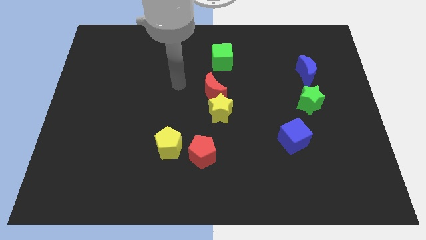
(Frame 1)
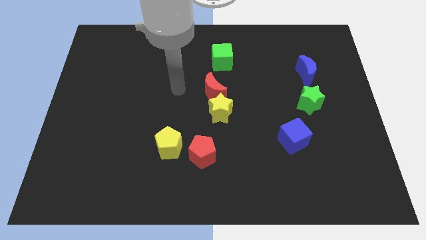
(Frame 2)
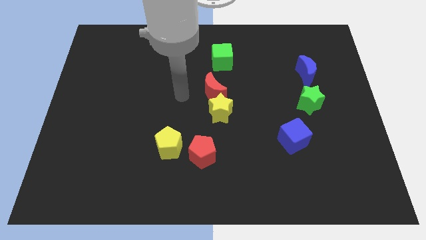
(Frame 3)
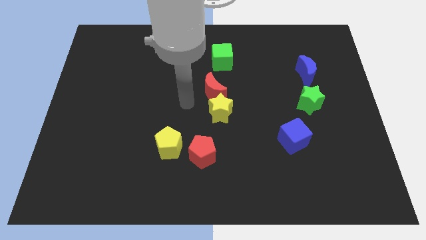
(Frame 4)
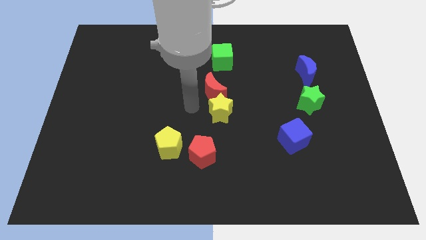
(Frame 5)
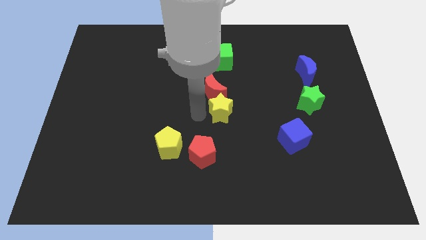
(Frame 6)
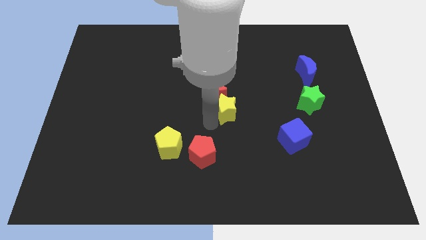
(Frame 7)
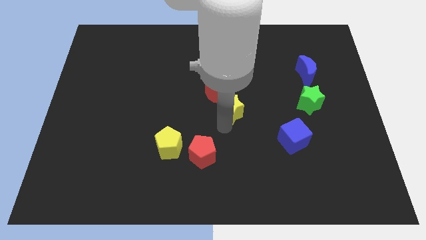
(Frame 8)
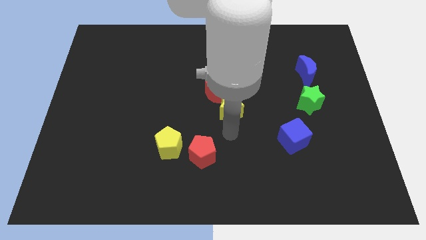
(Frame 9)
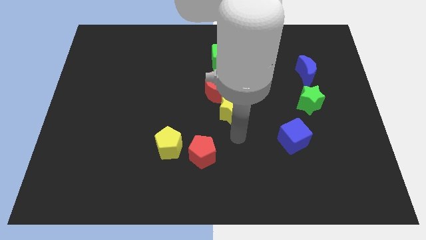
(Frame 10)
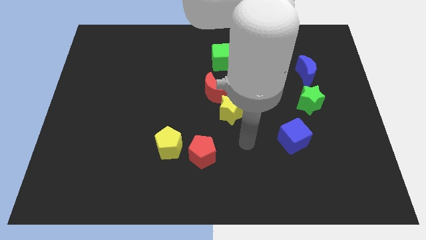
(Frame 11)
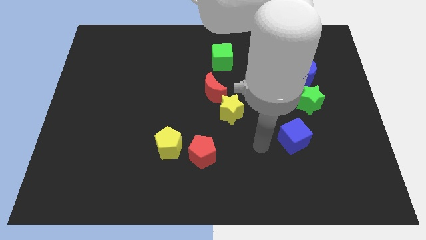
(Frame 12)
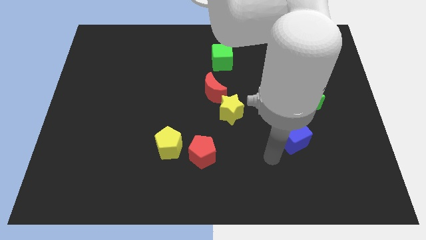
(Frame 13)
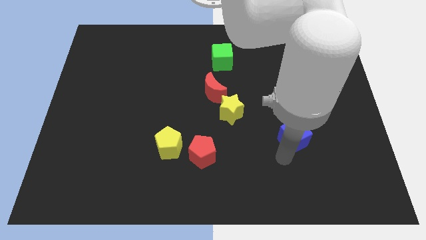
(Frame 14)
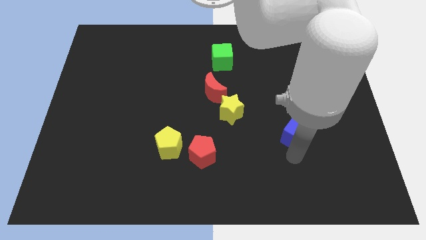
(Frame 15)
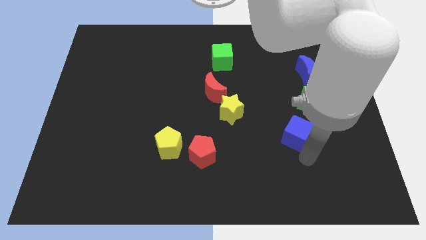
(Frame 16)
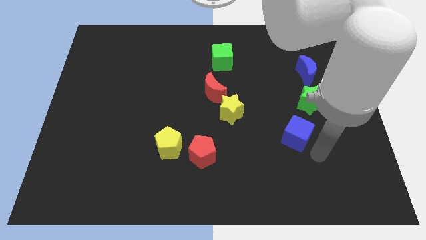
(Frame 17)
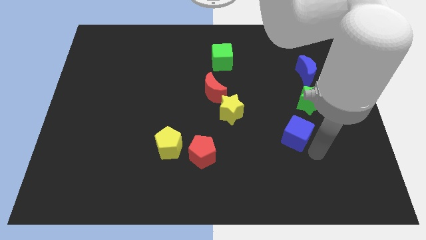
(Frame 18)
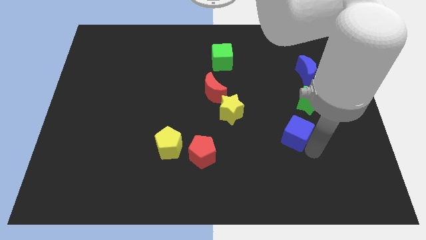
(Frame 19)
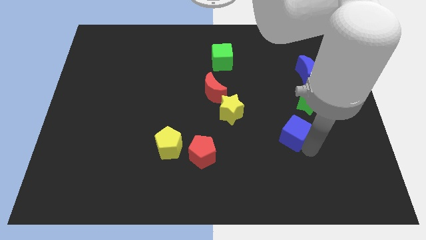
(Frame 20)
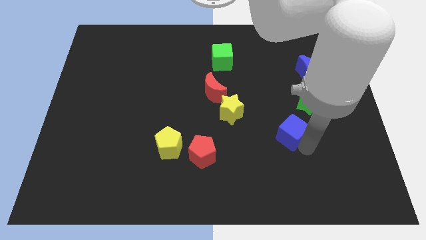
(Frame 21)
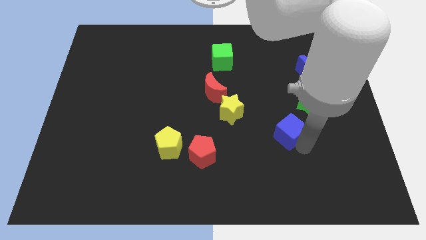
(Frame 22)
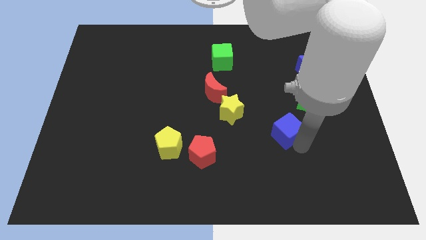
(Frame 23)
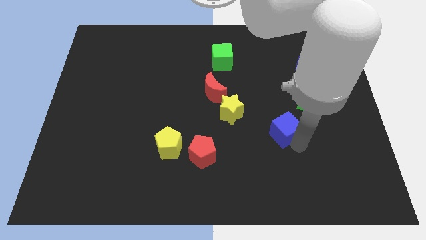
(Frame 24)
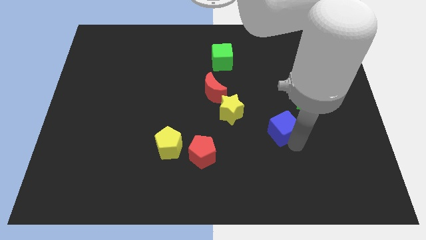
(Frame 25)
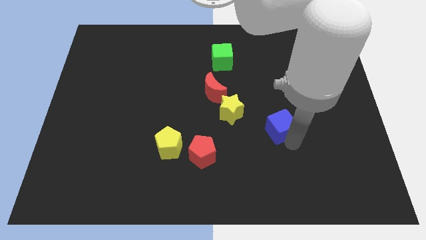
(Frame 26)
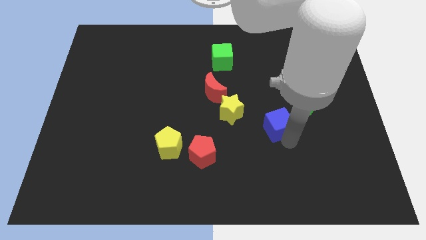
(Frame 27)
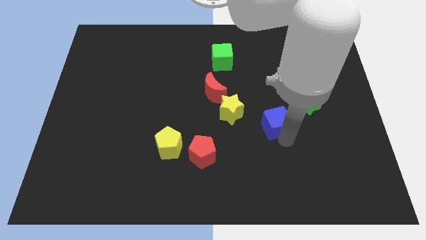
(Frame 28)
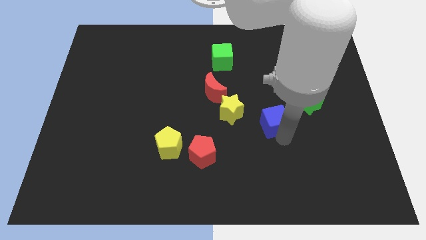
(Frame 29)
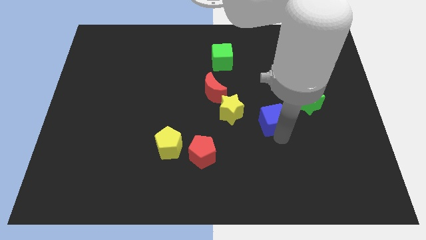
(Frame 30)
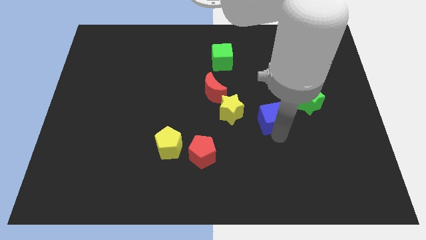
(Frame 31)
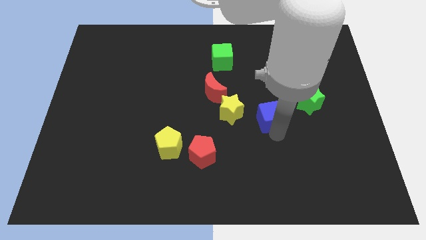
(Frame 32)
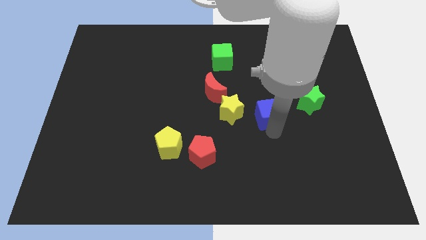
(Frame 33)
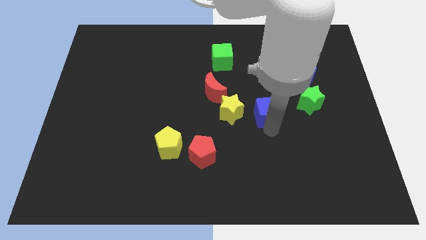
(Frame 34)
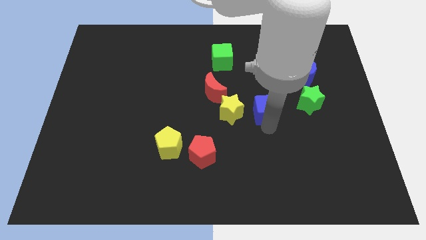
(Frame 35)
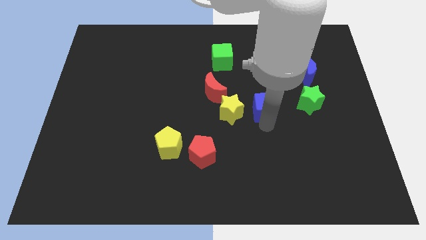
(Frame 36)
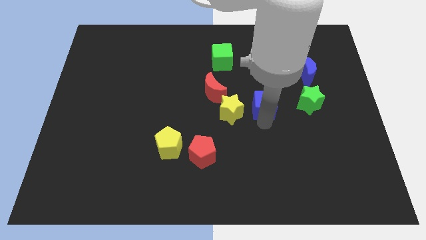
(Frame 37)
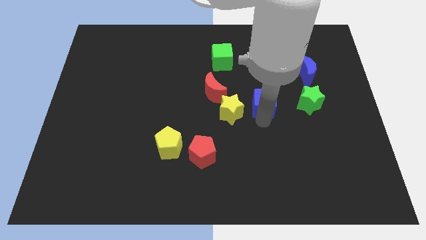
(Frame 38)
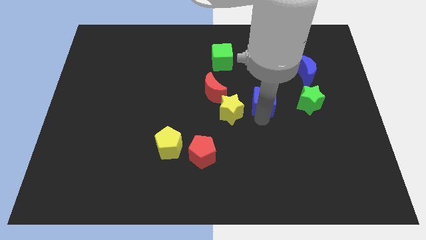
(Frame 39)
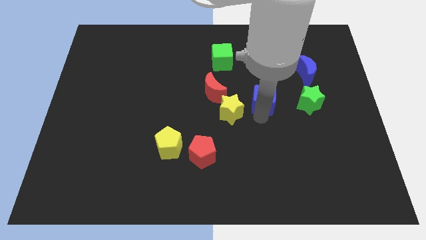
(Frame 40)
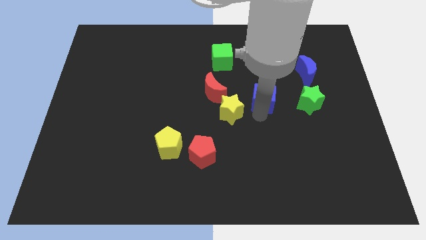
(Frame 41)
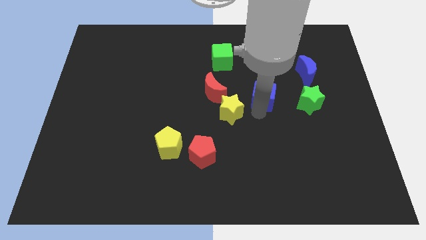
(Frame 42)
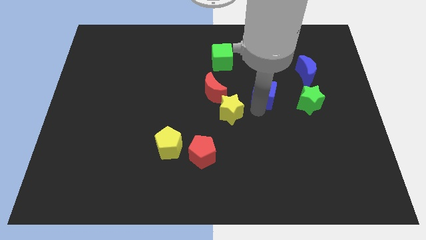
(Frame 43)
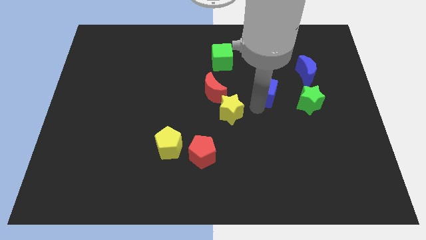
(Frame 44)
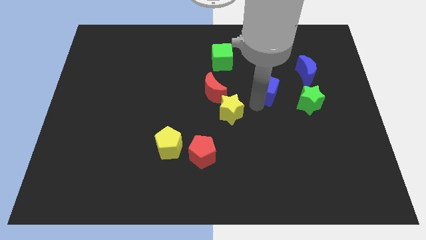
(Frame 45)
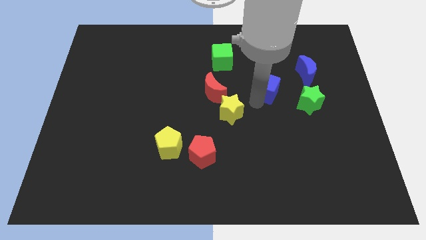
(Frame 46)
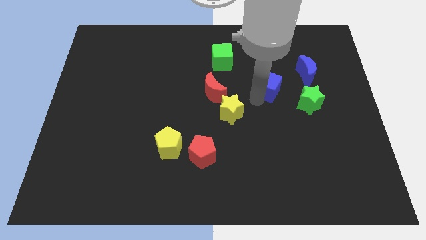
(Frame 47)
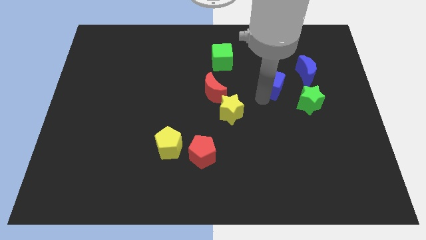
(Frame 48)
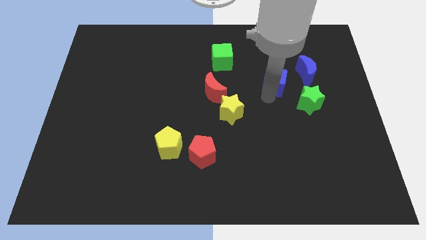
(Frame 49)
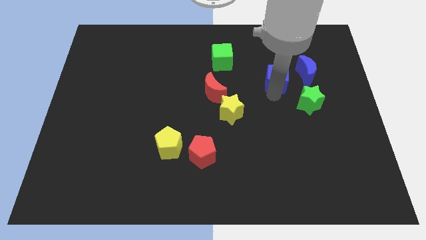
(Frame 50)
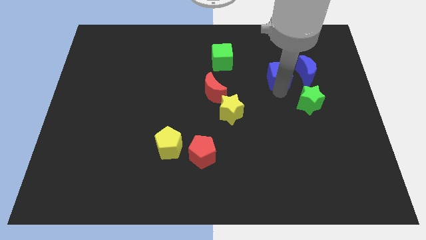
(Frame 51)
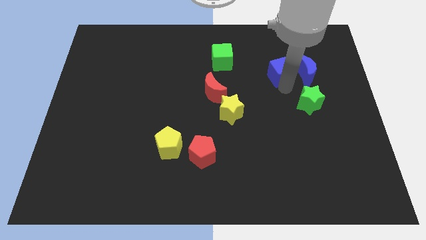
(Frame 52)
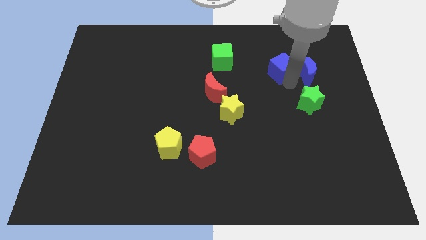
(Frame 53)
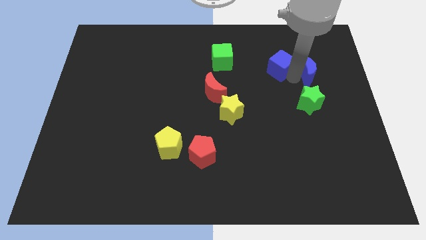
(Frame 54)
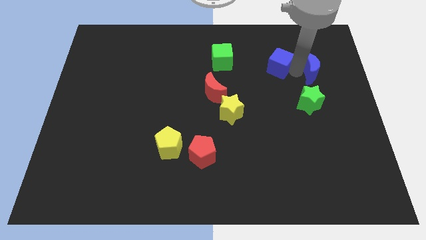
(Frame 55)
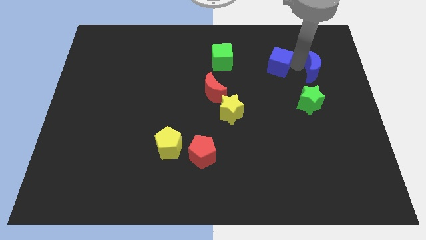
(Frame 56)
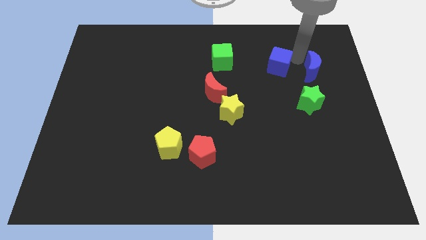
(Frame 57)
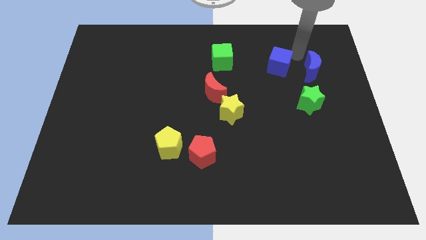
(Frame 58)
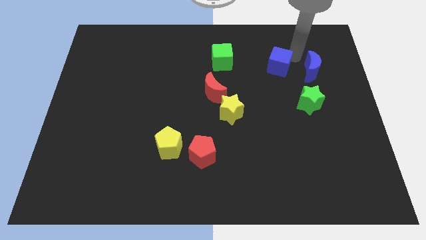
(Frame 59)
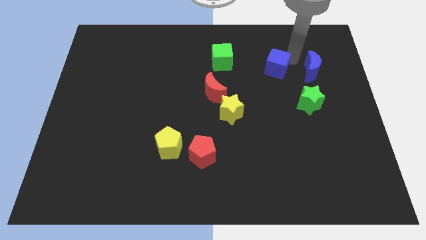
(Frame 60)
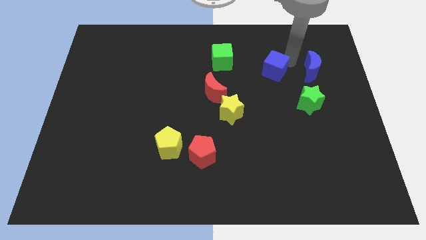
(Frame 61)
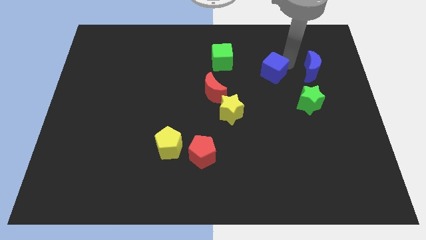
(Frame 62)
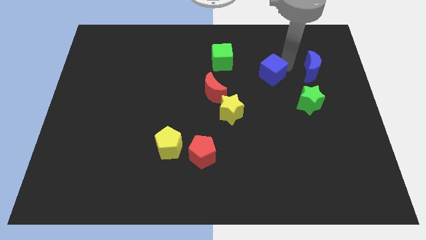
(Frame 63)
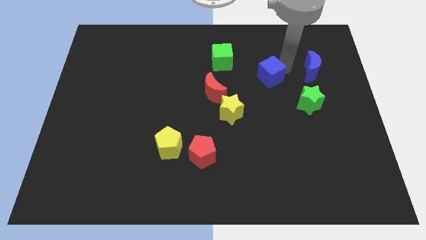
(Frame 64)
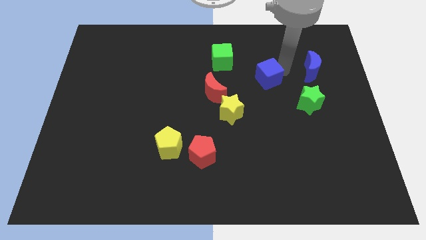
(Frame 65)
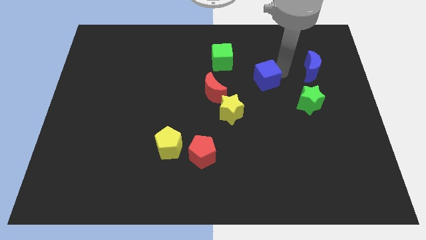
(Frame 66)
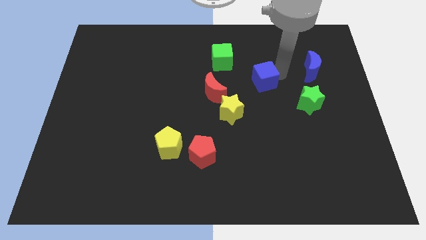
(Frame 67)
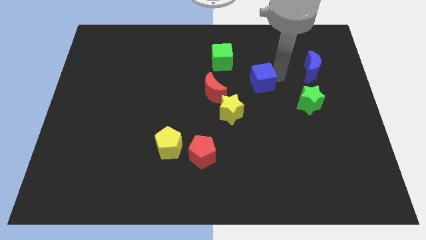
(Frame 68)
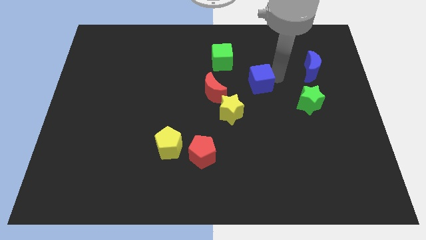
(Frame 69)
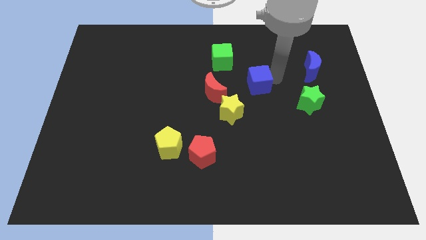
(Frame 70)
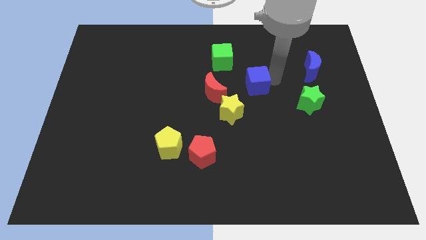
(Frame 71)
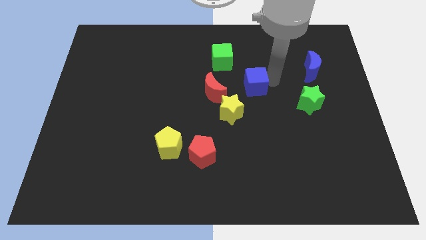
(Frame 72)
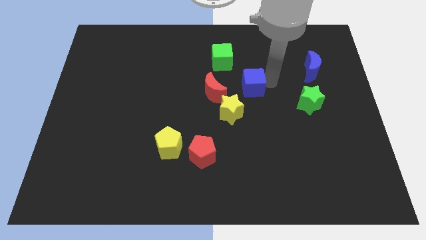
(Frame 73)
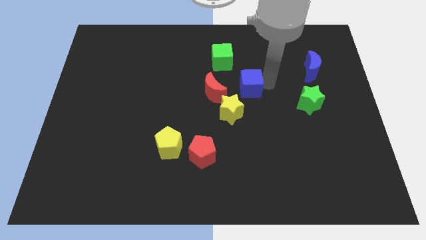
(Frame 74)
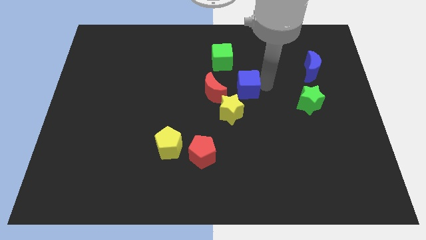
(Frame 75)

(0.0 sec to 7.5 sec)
move the blue cube to the top of the yellow star

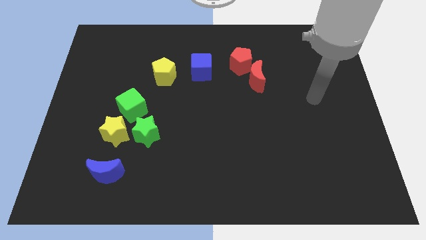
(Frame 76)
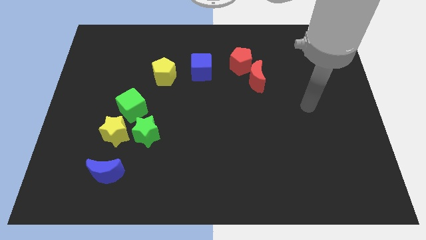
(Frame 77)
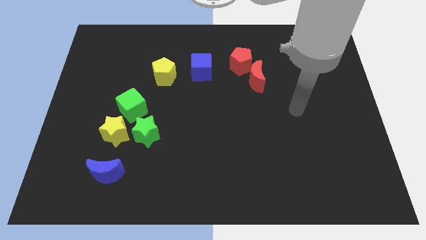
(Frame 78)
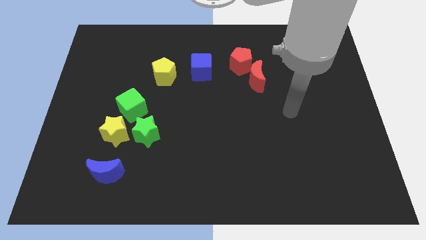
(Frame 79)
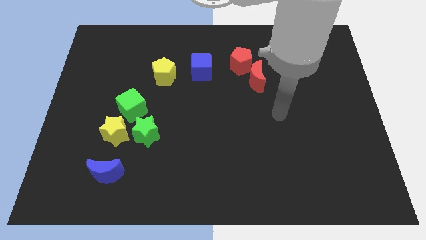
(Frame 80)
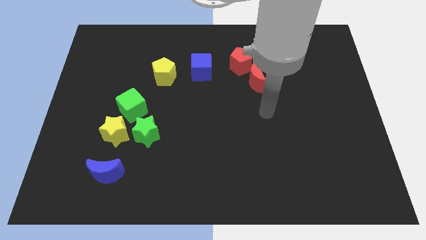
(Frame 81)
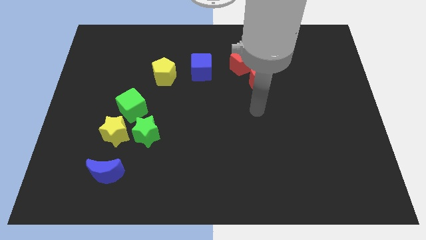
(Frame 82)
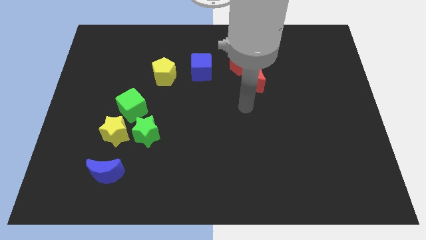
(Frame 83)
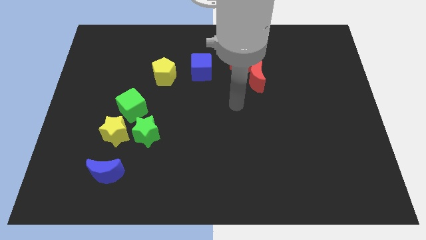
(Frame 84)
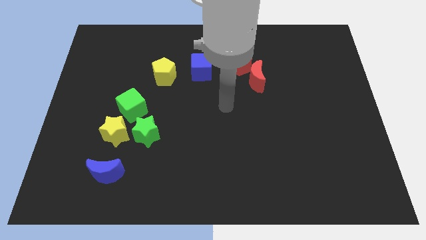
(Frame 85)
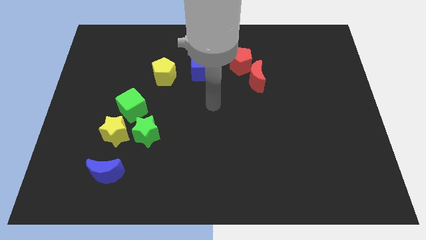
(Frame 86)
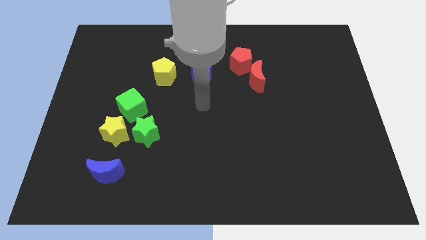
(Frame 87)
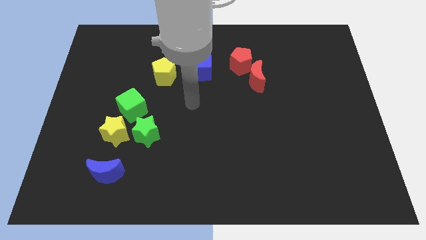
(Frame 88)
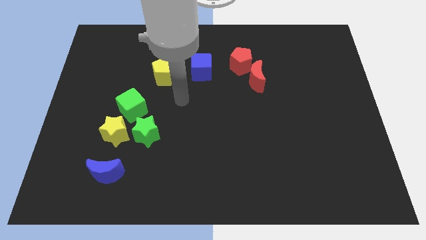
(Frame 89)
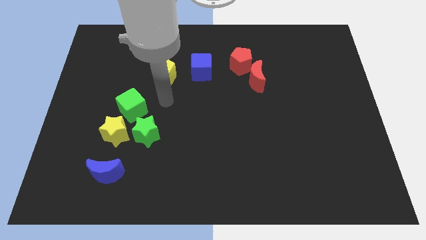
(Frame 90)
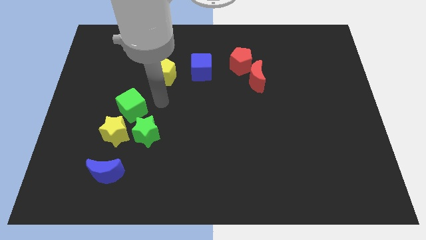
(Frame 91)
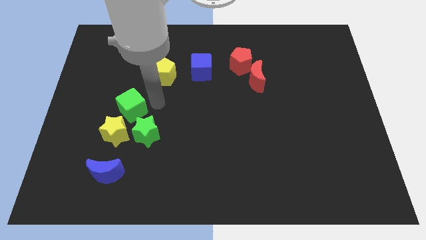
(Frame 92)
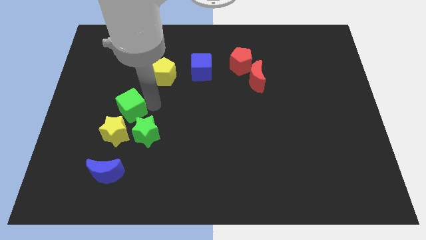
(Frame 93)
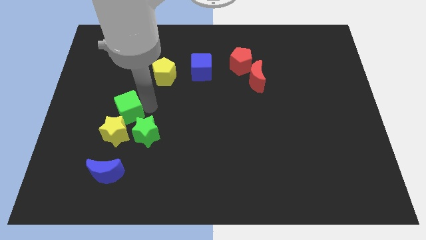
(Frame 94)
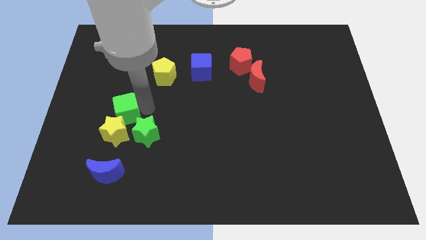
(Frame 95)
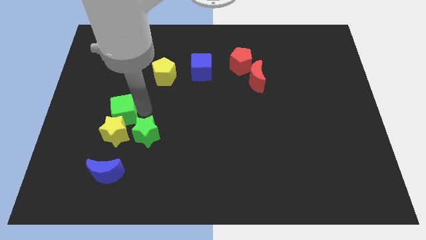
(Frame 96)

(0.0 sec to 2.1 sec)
slide the green cube to the top left side of the yellow star
